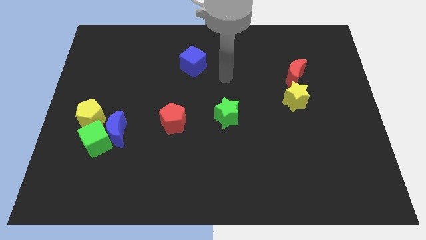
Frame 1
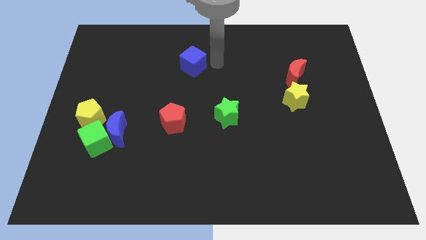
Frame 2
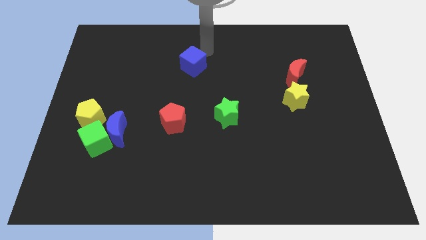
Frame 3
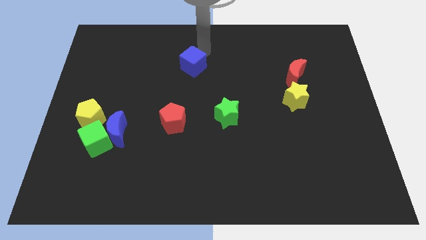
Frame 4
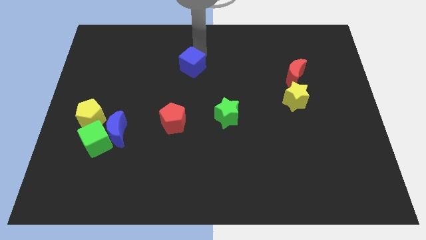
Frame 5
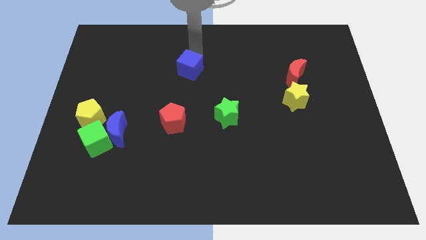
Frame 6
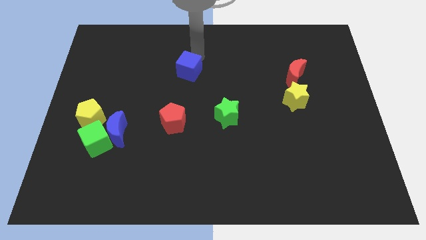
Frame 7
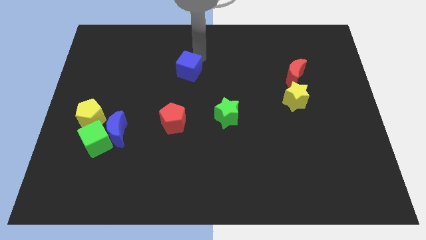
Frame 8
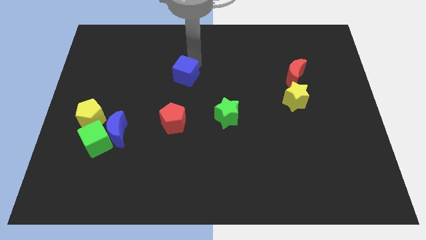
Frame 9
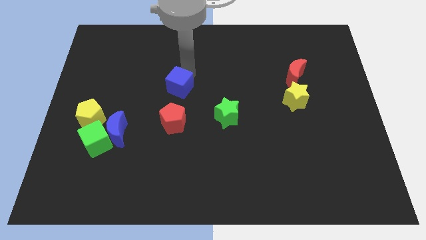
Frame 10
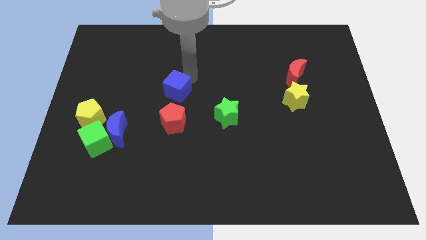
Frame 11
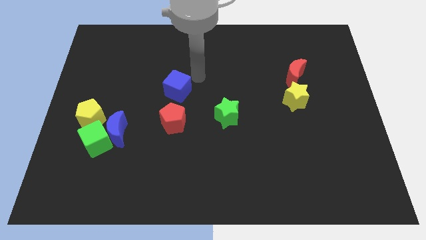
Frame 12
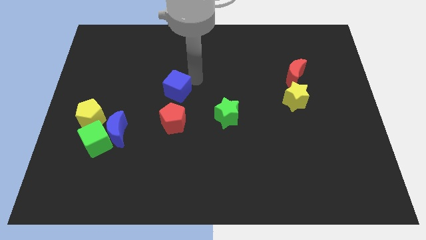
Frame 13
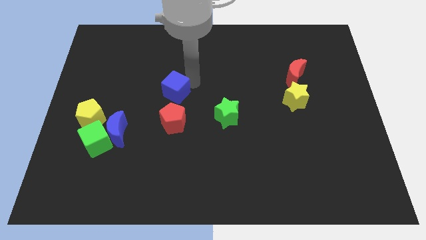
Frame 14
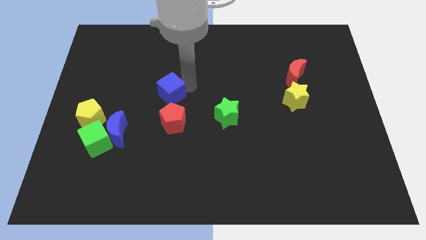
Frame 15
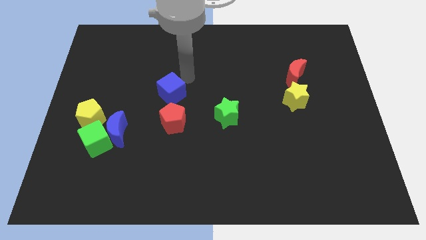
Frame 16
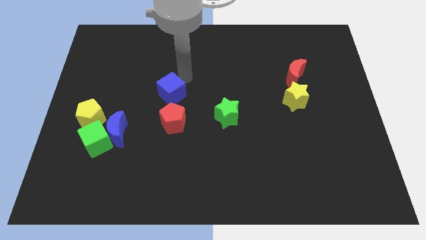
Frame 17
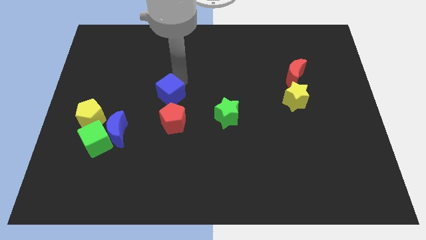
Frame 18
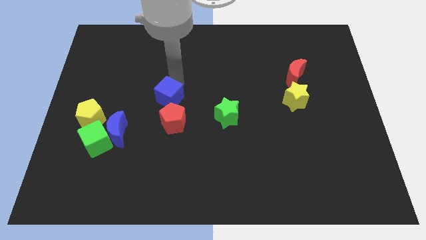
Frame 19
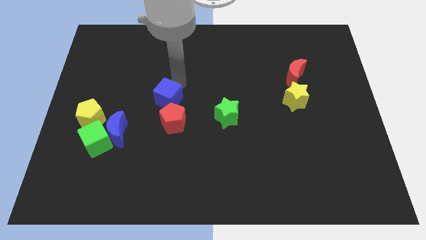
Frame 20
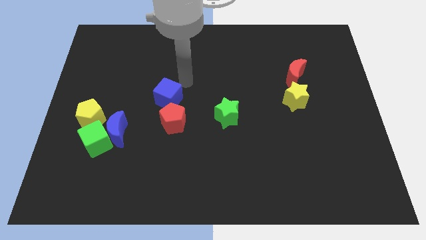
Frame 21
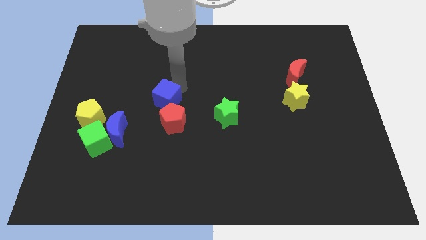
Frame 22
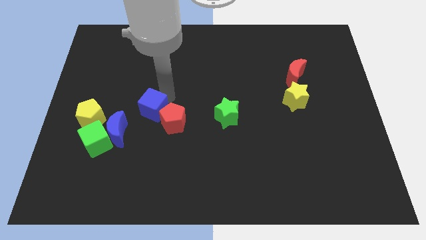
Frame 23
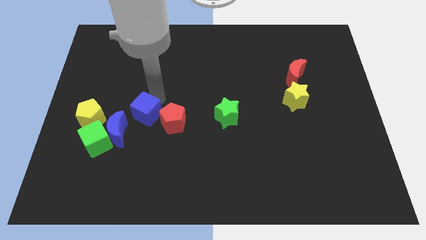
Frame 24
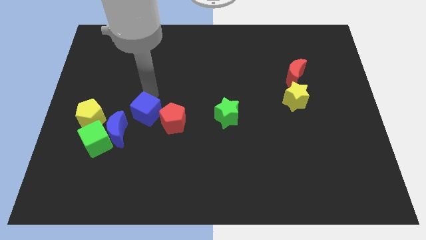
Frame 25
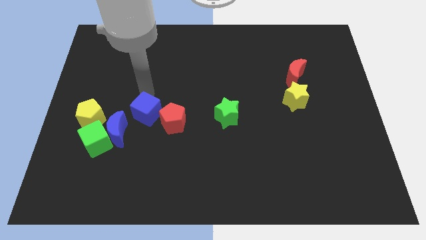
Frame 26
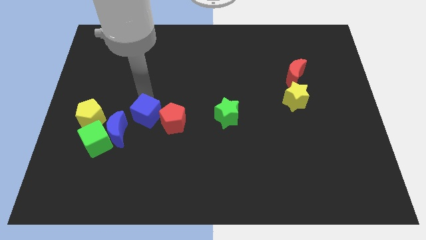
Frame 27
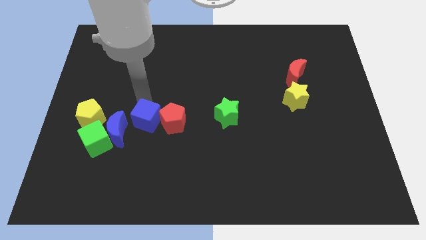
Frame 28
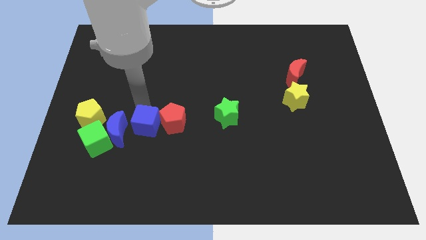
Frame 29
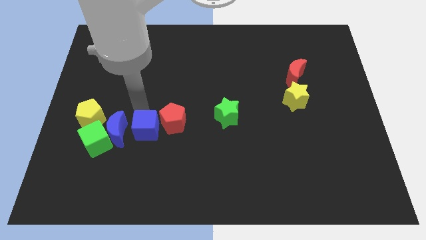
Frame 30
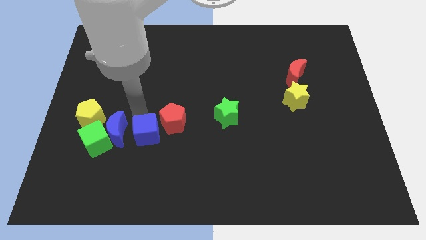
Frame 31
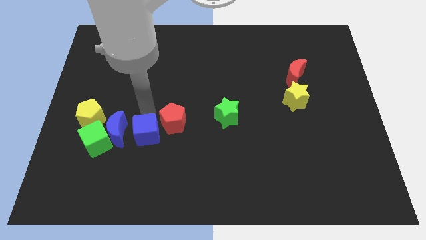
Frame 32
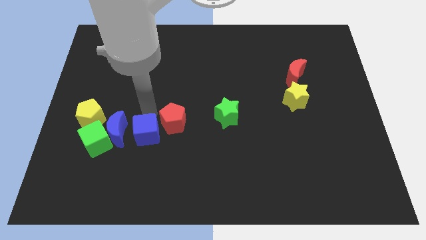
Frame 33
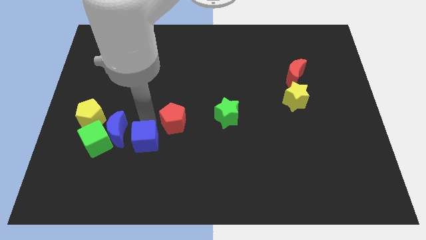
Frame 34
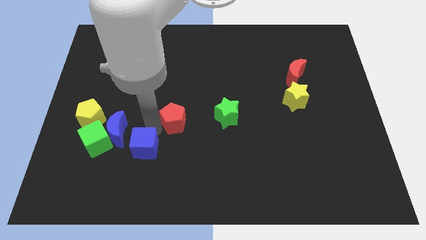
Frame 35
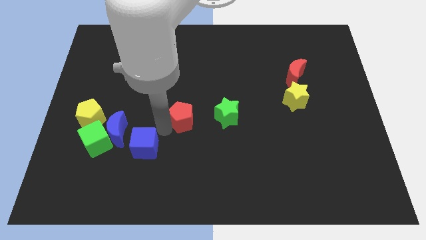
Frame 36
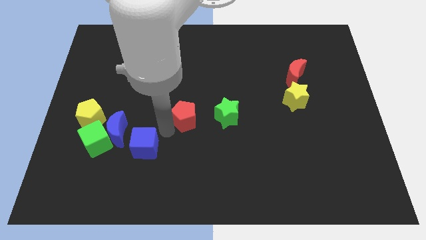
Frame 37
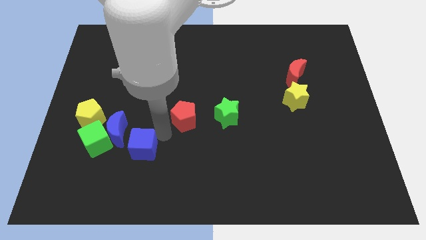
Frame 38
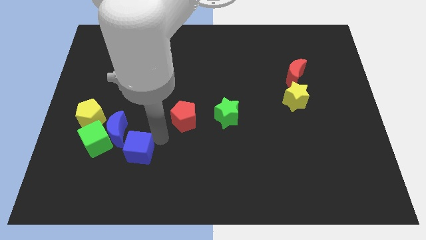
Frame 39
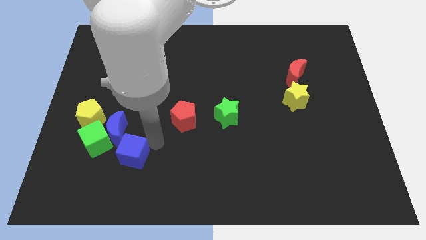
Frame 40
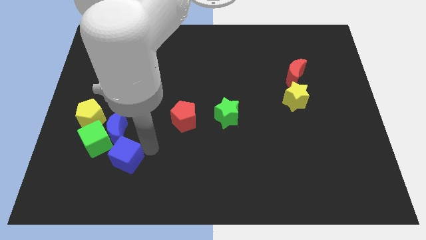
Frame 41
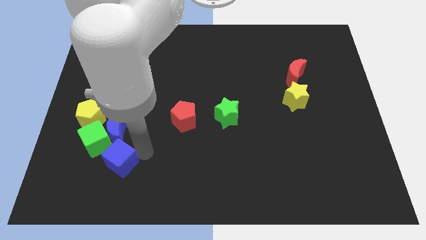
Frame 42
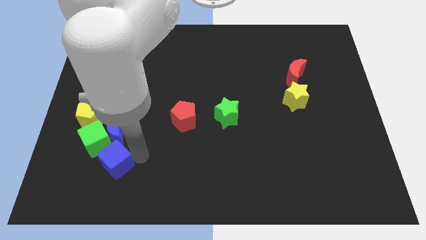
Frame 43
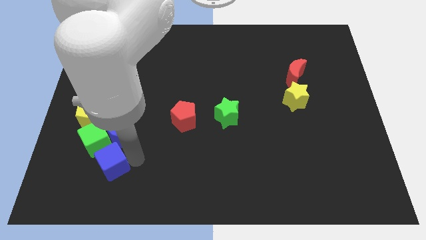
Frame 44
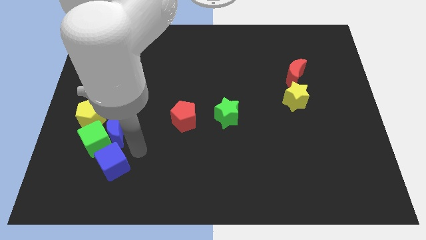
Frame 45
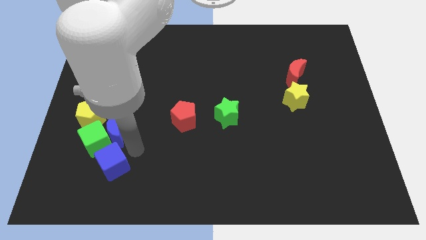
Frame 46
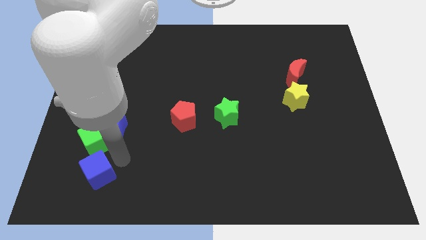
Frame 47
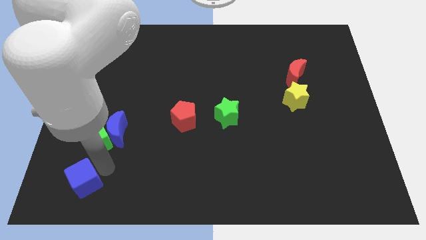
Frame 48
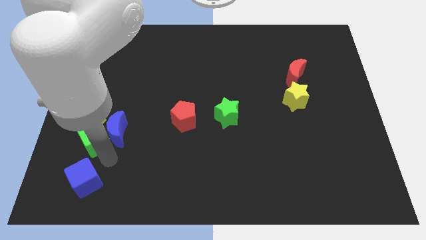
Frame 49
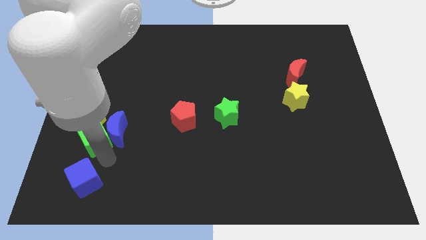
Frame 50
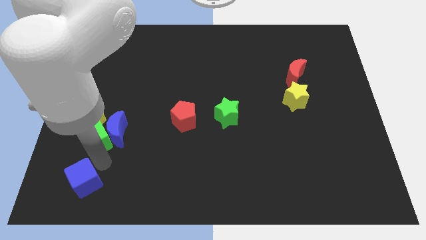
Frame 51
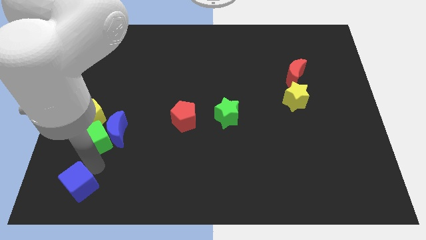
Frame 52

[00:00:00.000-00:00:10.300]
put the blue cube to the bottom left

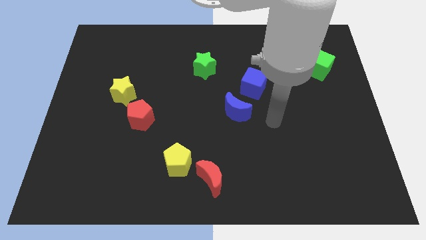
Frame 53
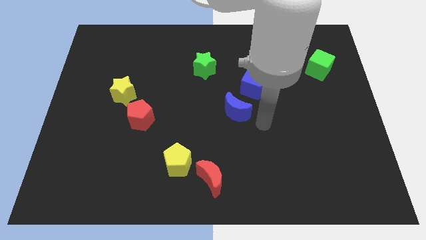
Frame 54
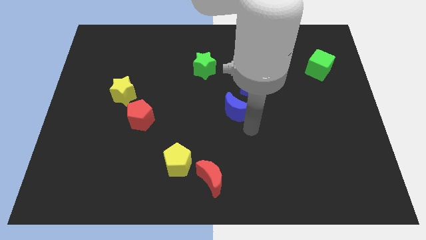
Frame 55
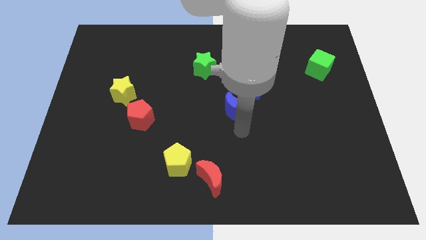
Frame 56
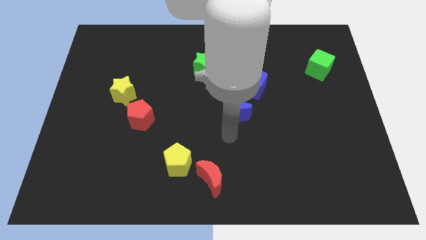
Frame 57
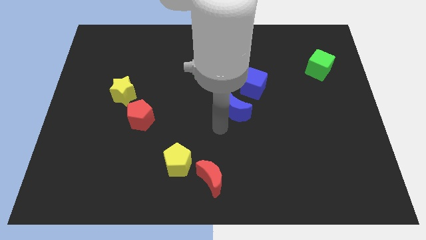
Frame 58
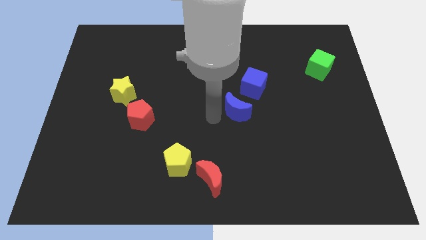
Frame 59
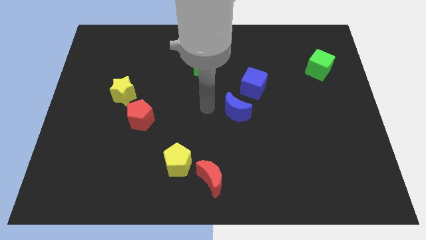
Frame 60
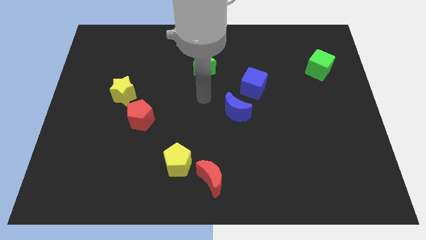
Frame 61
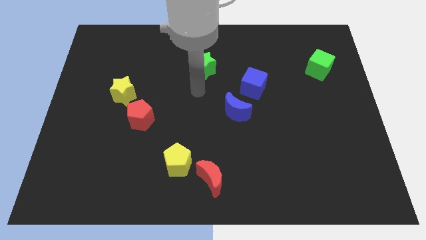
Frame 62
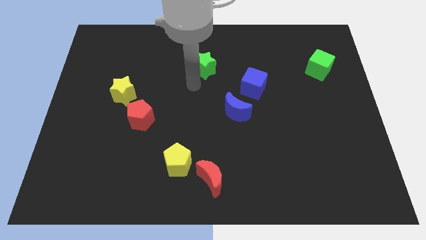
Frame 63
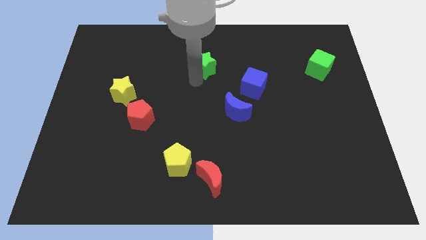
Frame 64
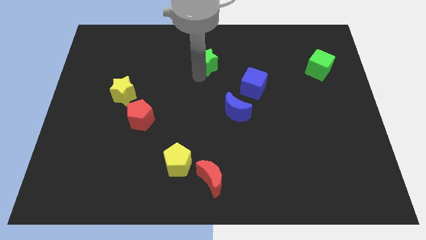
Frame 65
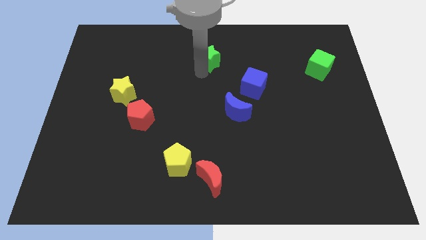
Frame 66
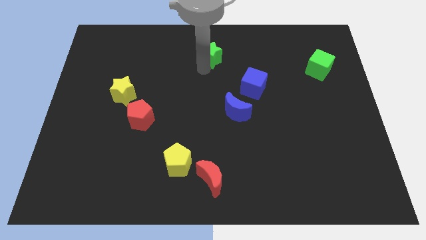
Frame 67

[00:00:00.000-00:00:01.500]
put the green star to the top side

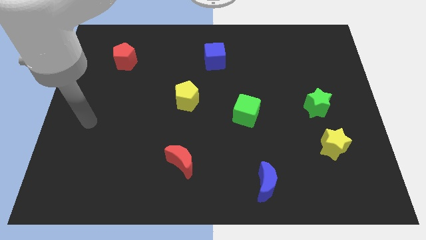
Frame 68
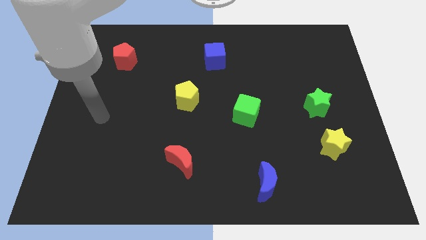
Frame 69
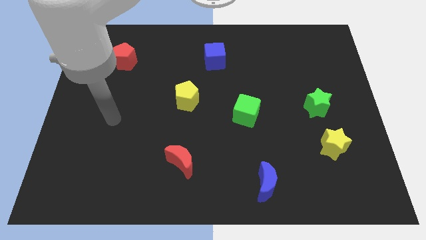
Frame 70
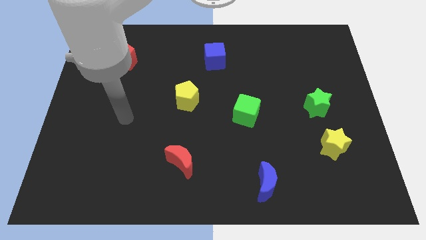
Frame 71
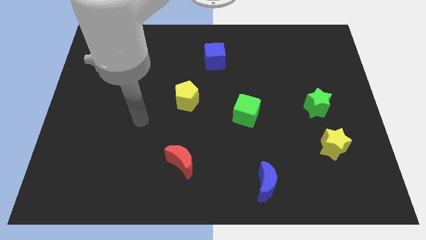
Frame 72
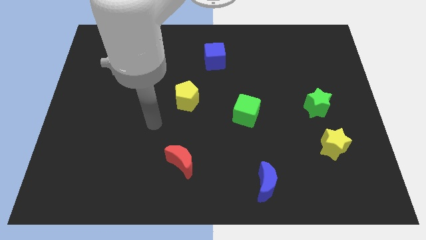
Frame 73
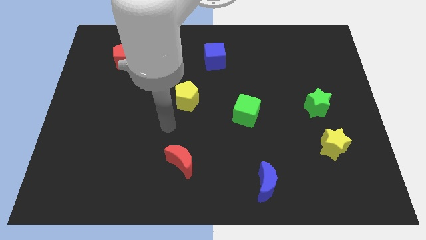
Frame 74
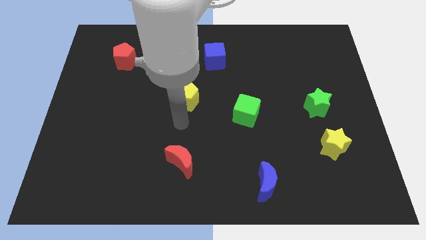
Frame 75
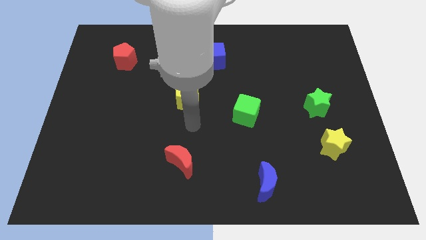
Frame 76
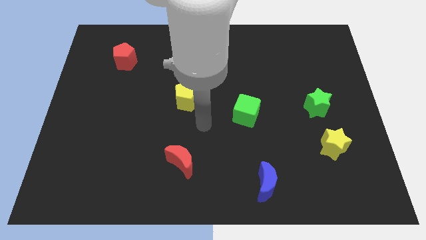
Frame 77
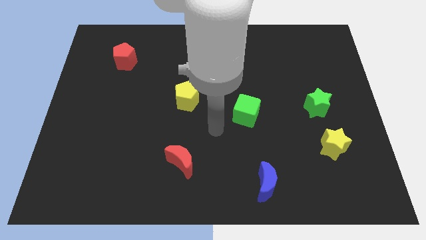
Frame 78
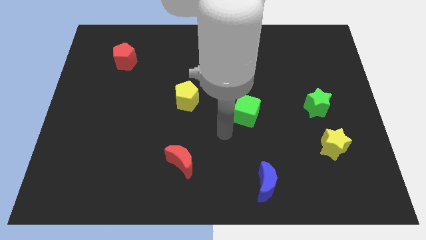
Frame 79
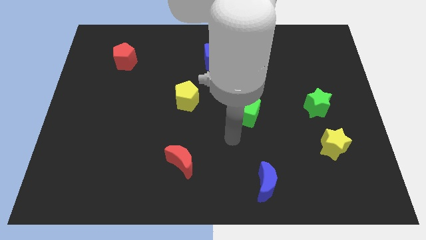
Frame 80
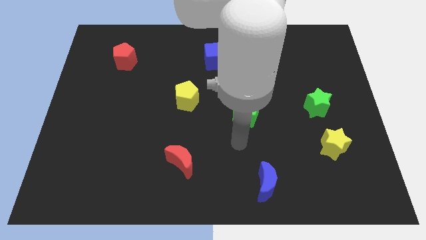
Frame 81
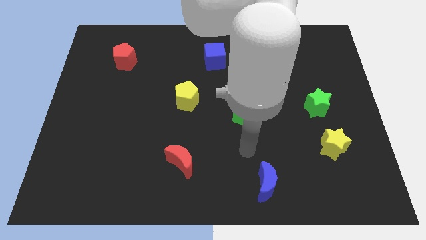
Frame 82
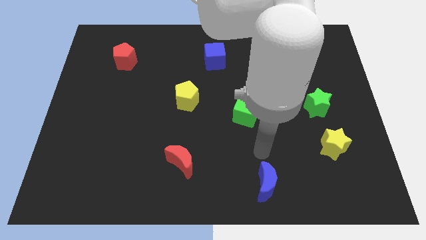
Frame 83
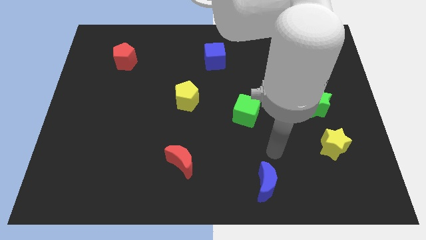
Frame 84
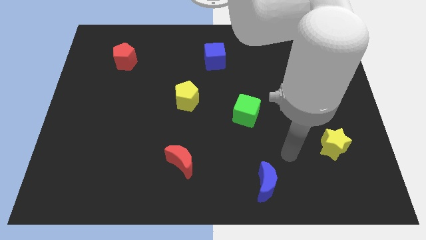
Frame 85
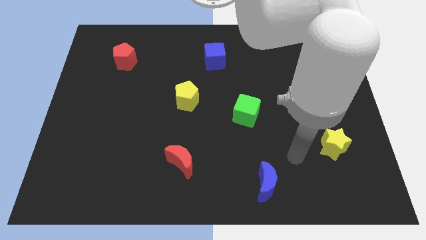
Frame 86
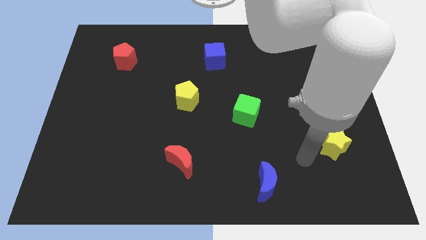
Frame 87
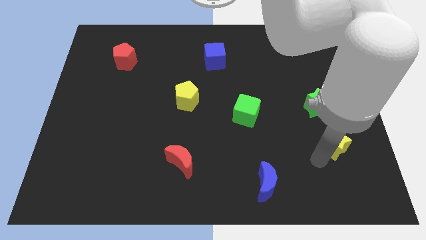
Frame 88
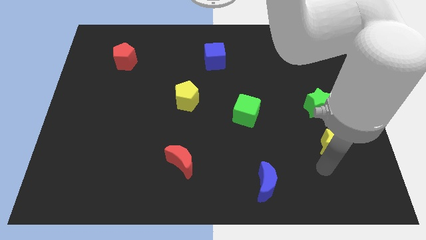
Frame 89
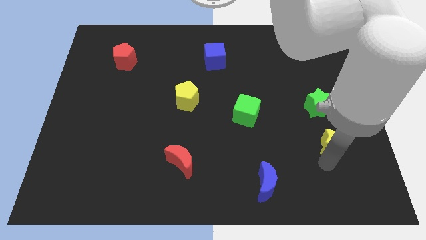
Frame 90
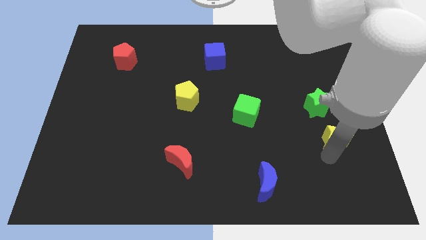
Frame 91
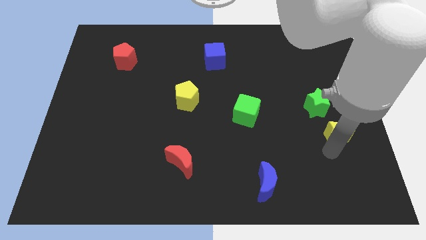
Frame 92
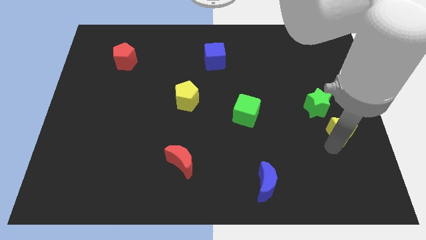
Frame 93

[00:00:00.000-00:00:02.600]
slide the yellow star to the right side of the board
